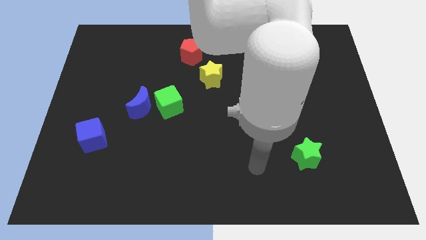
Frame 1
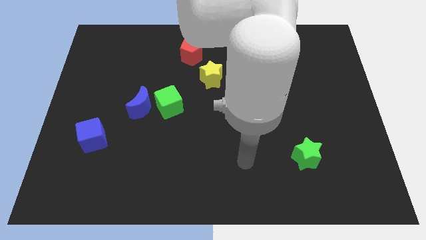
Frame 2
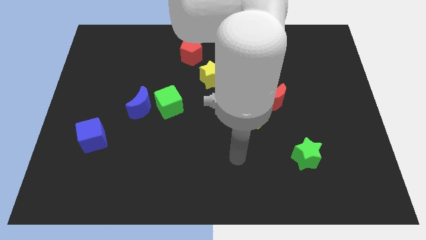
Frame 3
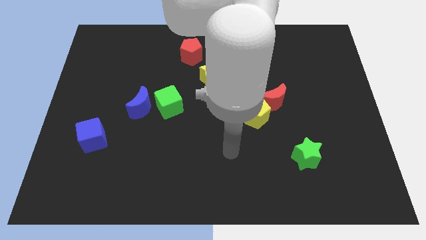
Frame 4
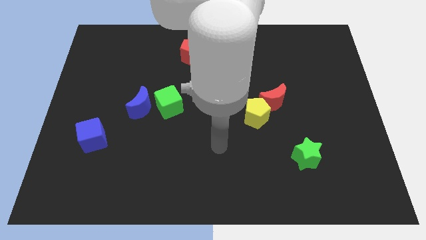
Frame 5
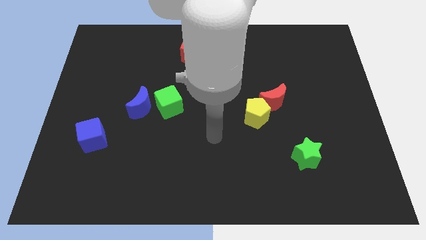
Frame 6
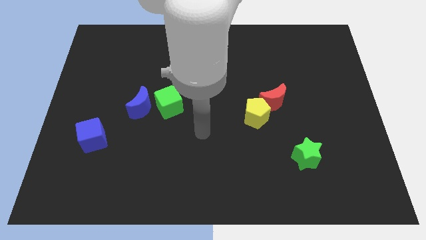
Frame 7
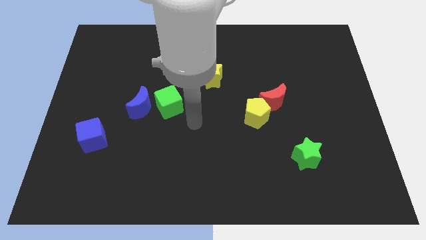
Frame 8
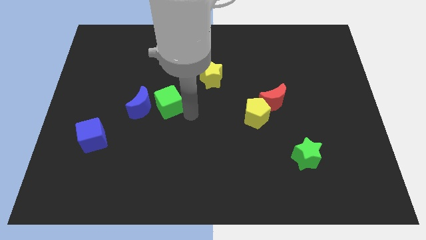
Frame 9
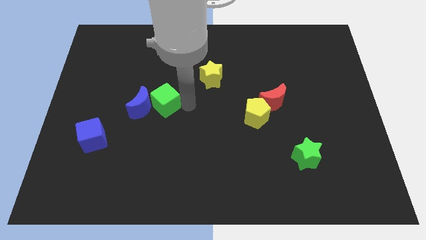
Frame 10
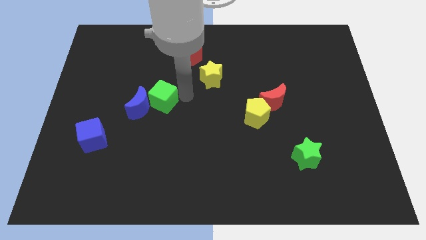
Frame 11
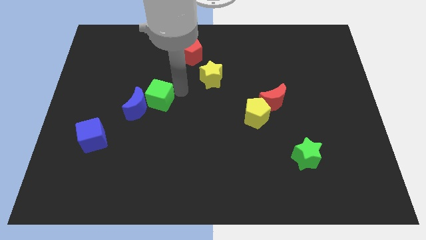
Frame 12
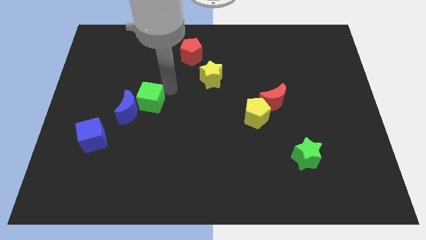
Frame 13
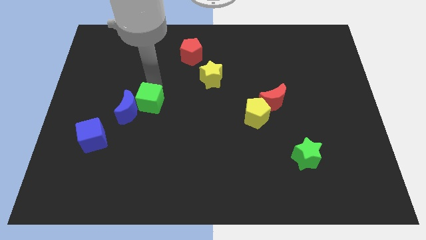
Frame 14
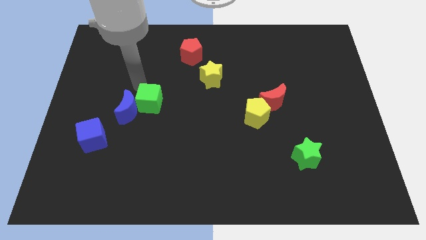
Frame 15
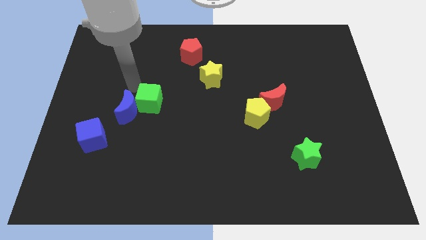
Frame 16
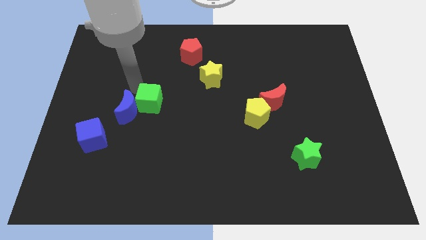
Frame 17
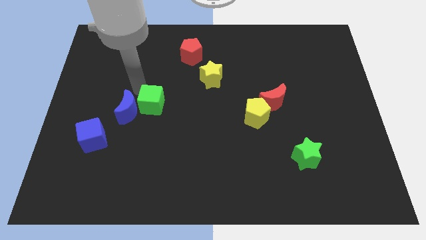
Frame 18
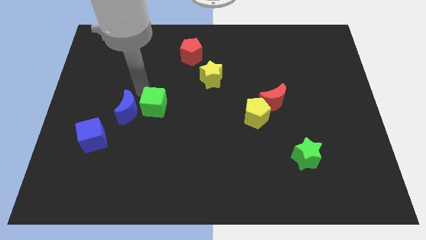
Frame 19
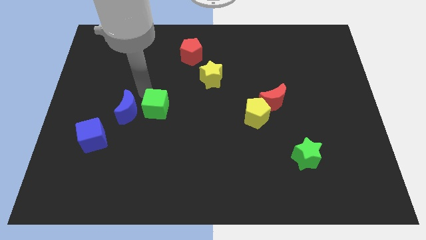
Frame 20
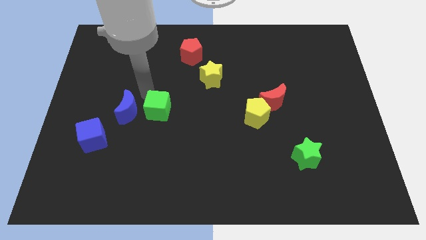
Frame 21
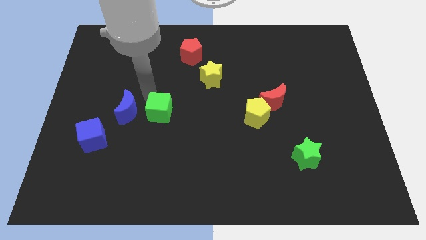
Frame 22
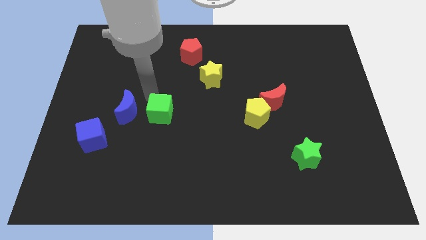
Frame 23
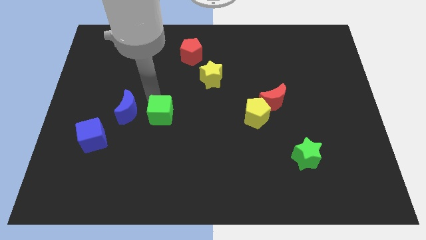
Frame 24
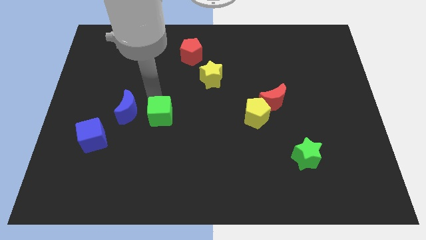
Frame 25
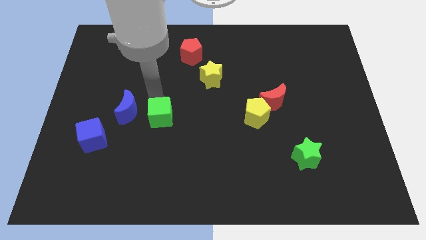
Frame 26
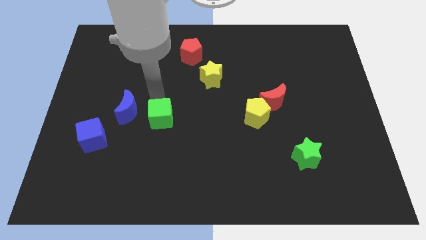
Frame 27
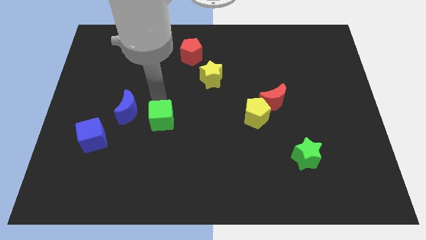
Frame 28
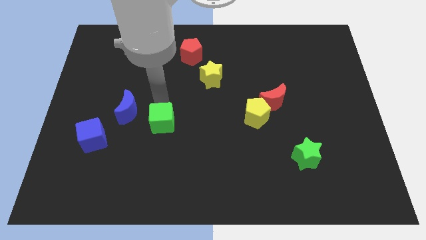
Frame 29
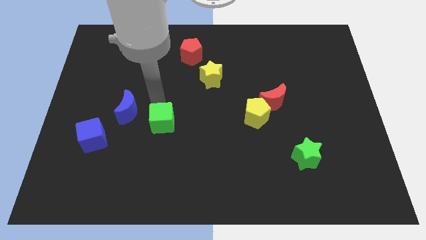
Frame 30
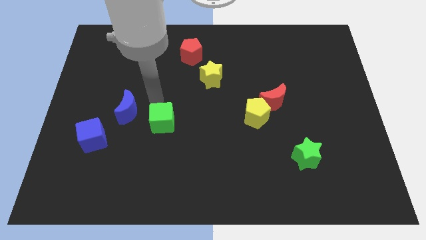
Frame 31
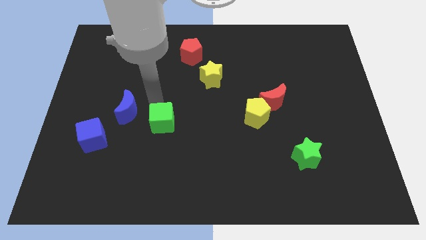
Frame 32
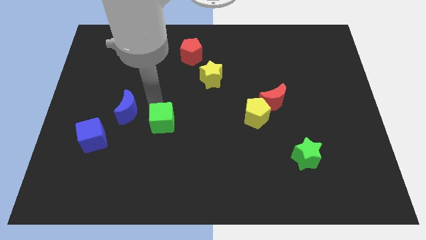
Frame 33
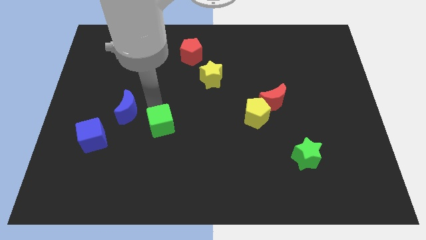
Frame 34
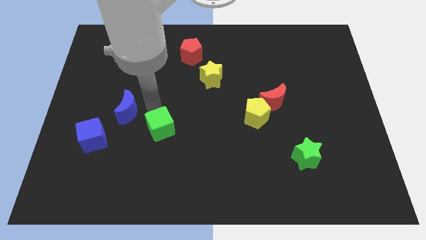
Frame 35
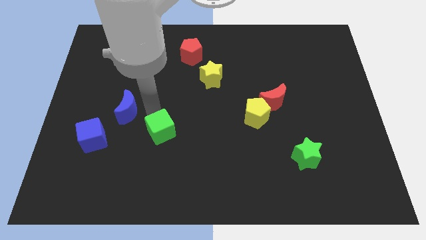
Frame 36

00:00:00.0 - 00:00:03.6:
slightly move the green cube down

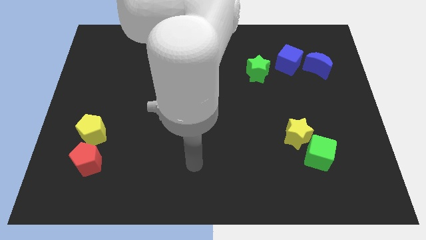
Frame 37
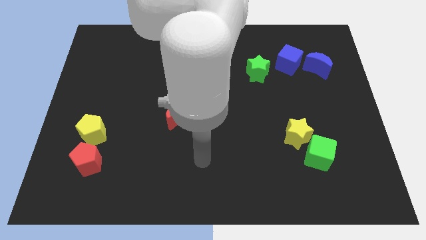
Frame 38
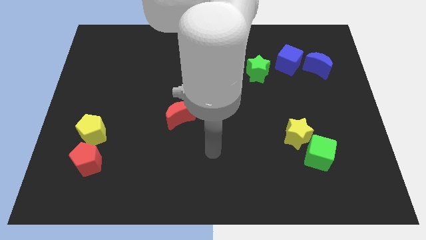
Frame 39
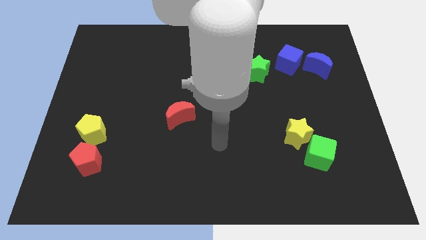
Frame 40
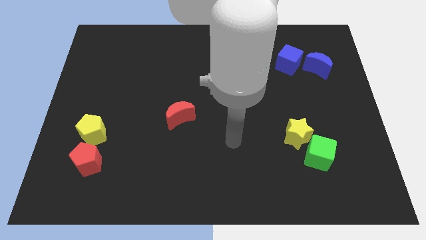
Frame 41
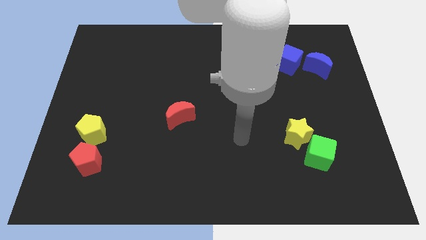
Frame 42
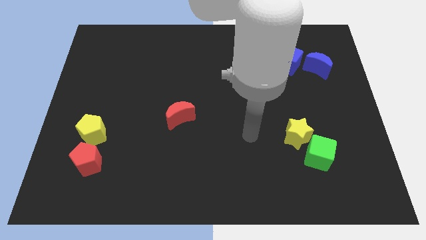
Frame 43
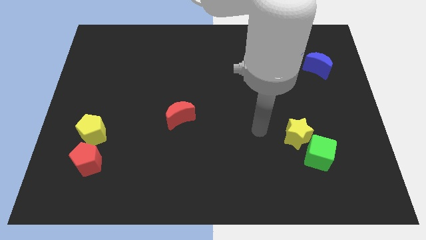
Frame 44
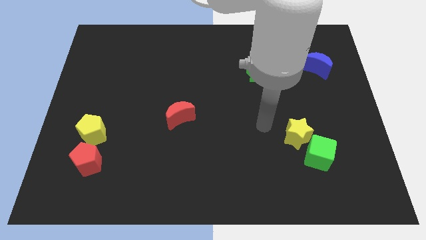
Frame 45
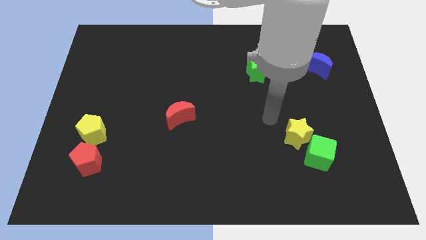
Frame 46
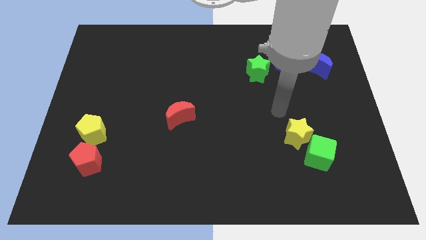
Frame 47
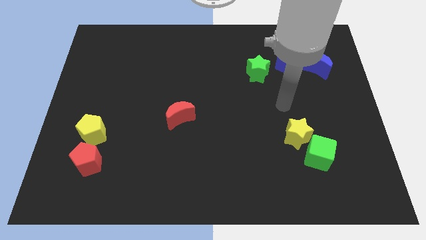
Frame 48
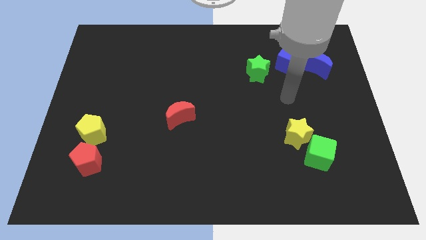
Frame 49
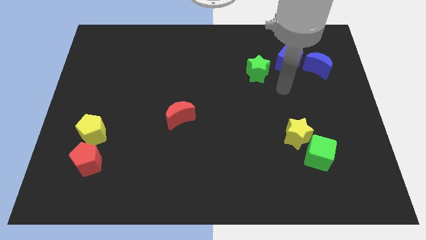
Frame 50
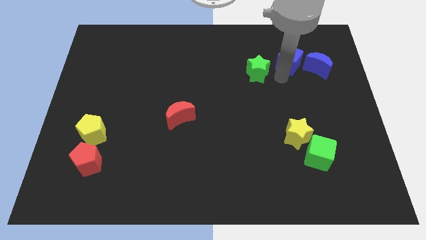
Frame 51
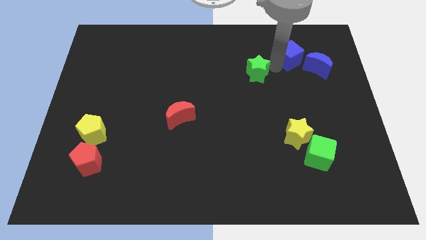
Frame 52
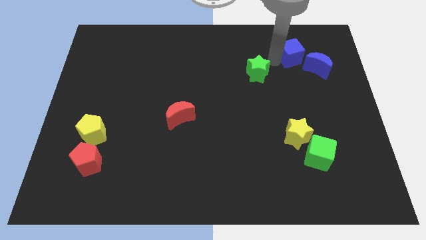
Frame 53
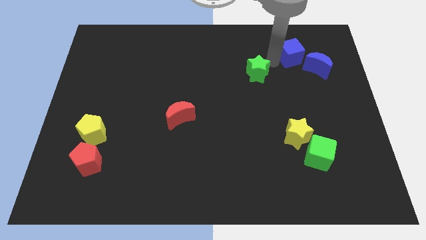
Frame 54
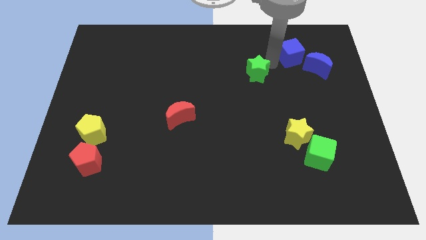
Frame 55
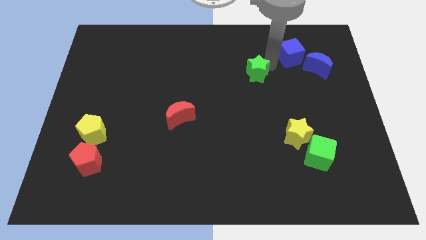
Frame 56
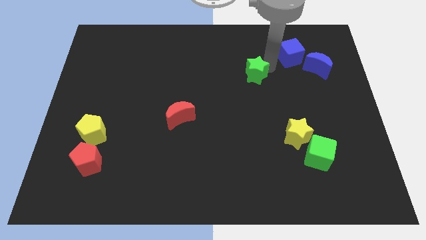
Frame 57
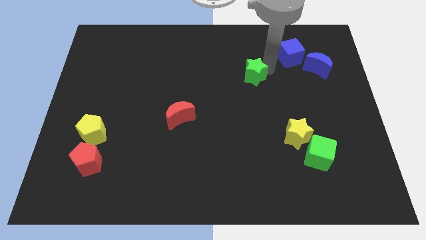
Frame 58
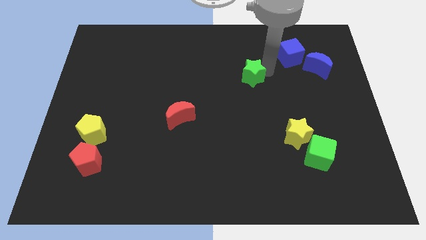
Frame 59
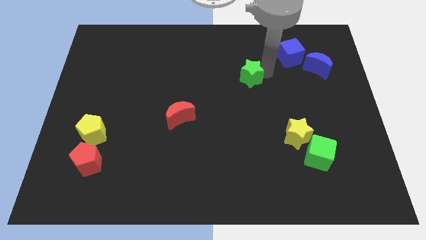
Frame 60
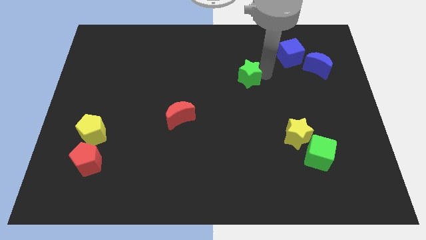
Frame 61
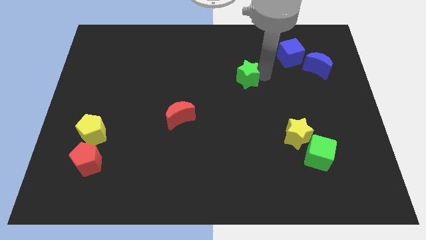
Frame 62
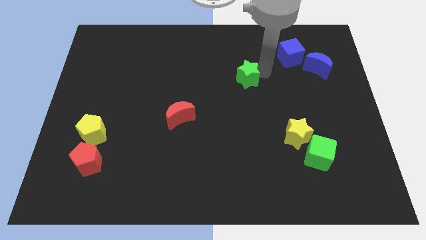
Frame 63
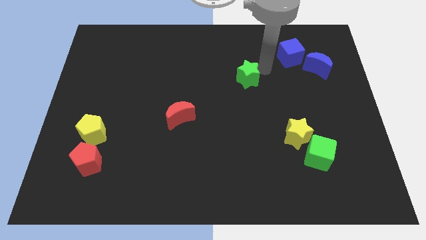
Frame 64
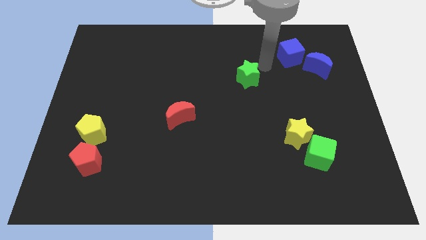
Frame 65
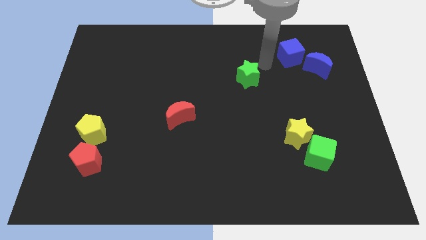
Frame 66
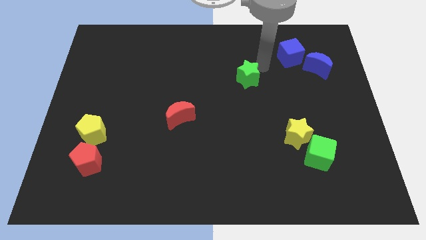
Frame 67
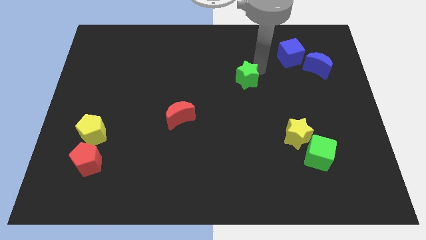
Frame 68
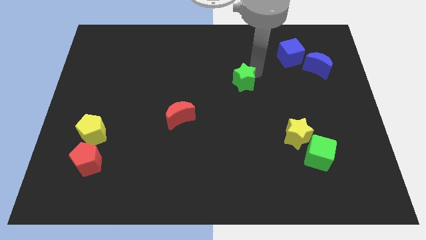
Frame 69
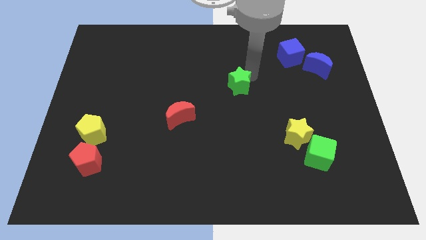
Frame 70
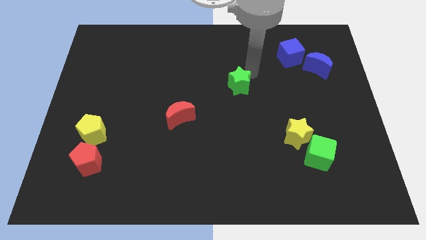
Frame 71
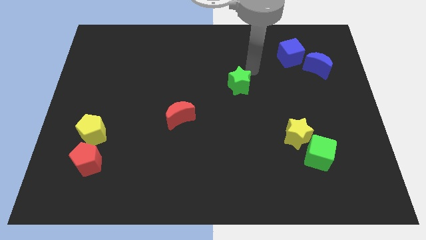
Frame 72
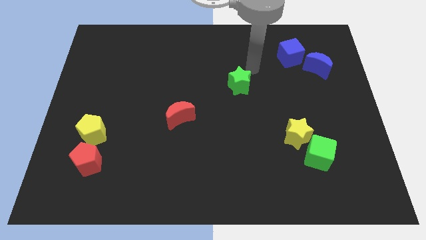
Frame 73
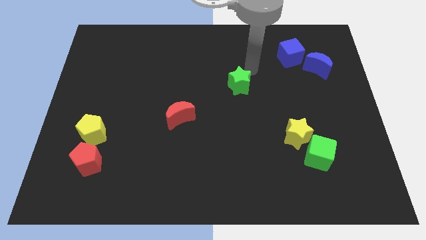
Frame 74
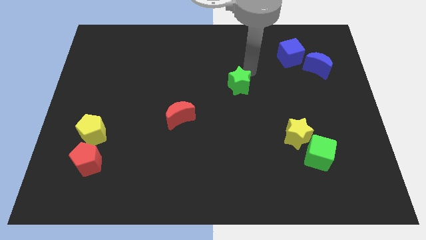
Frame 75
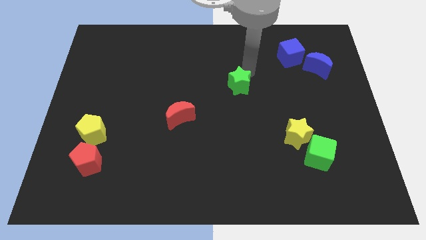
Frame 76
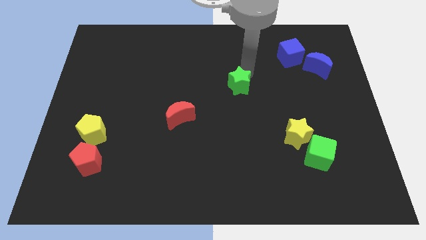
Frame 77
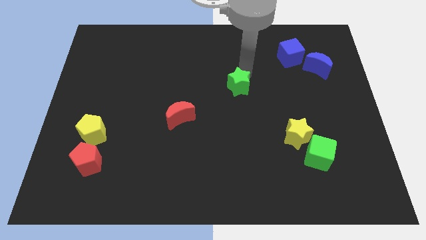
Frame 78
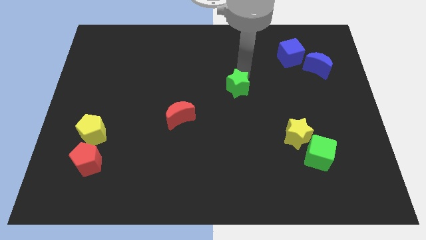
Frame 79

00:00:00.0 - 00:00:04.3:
slide the green star a little diagonally downwards and to the left
